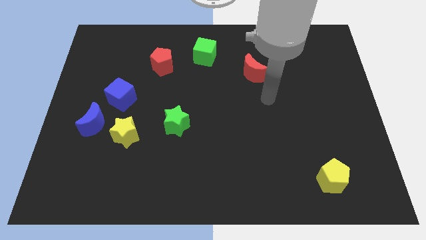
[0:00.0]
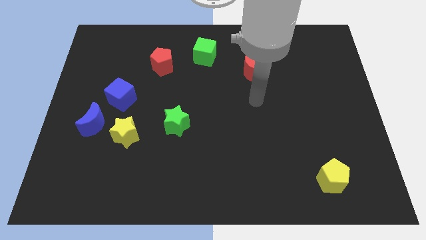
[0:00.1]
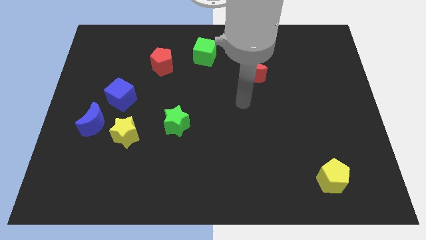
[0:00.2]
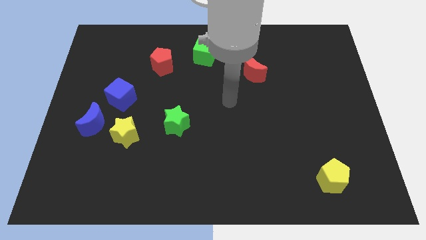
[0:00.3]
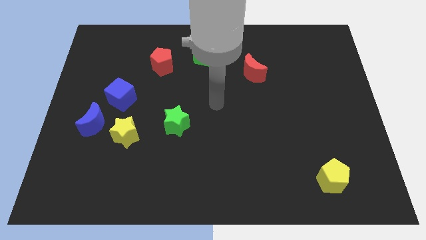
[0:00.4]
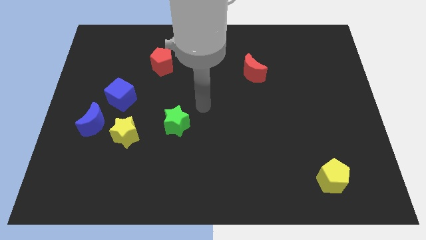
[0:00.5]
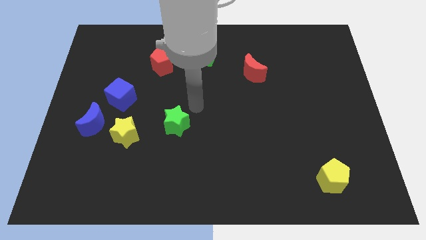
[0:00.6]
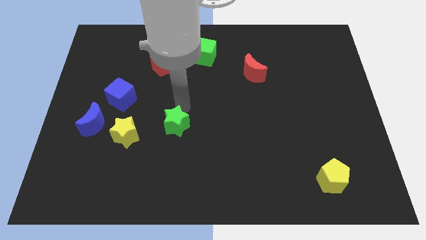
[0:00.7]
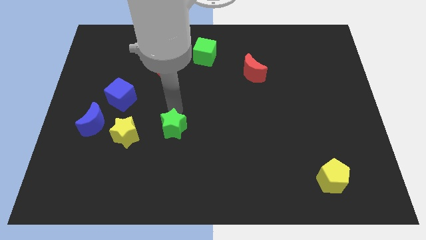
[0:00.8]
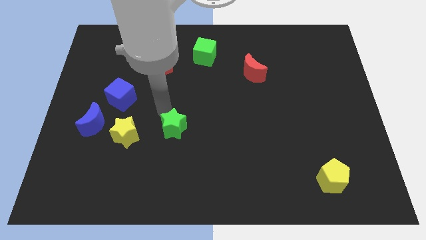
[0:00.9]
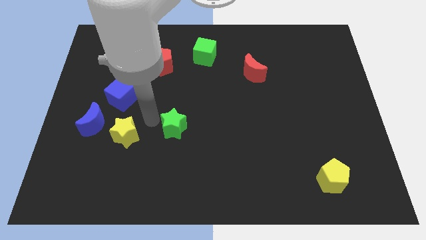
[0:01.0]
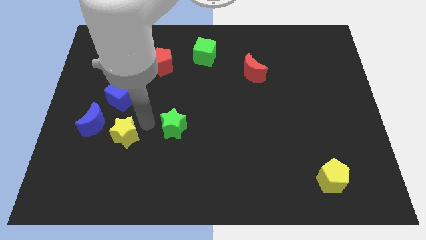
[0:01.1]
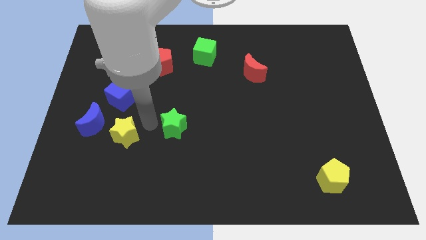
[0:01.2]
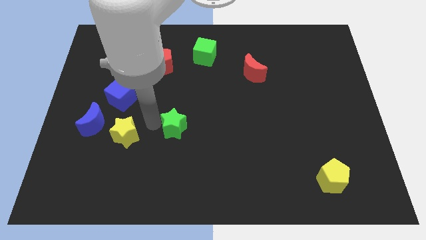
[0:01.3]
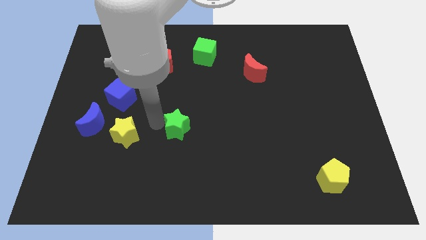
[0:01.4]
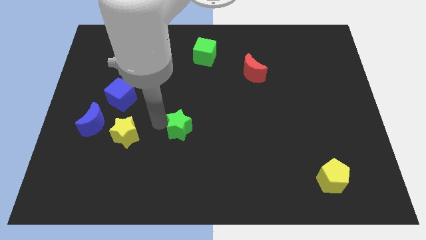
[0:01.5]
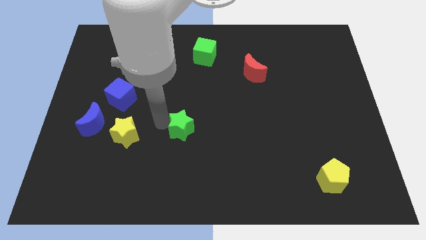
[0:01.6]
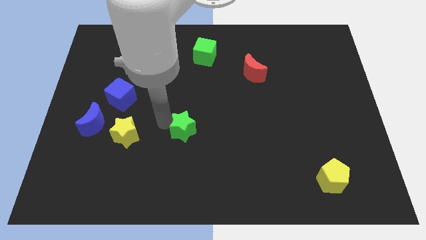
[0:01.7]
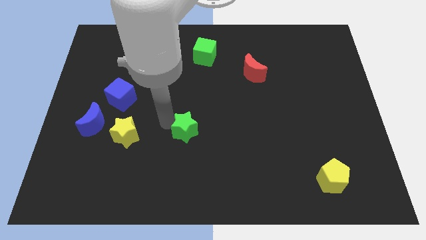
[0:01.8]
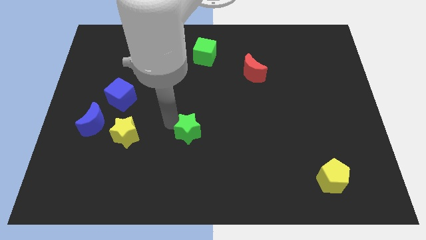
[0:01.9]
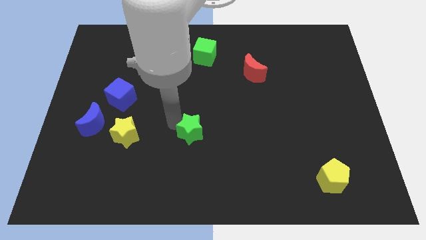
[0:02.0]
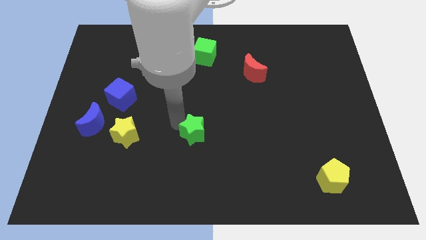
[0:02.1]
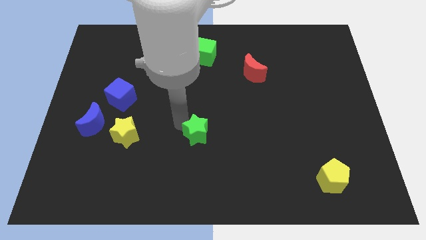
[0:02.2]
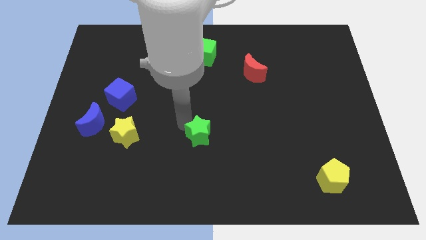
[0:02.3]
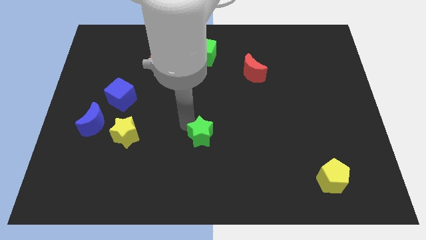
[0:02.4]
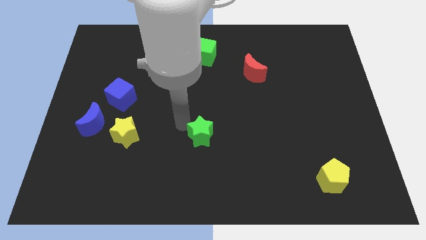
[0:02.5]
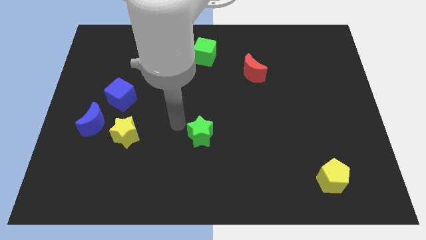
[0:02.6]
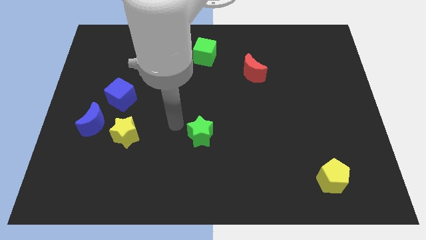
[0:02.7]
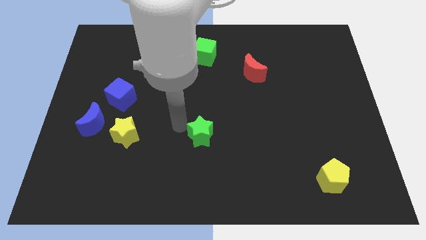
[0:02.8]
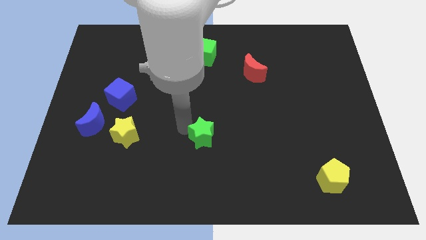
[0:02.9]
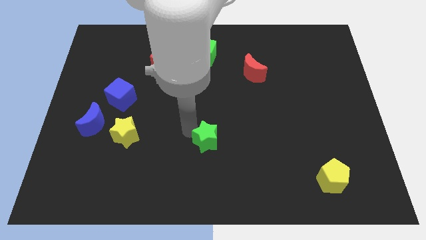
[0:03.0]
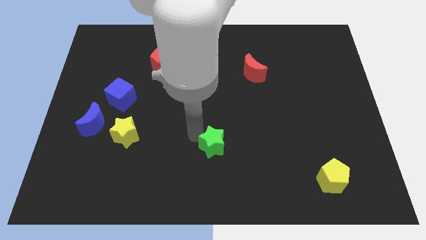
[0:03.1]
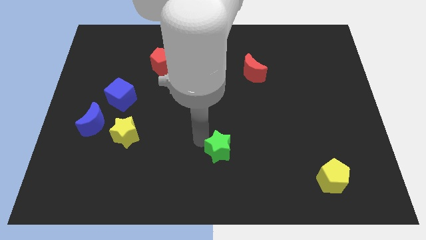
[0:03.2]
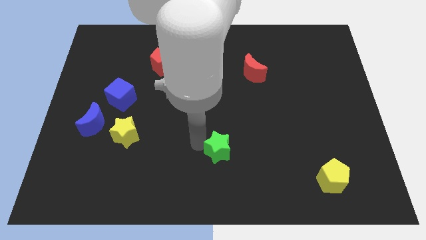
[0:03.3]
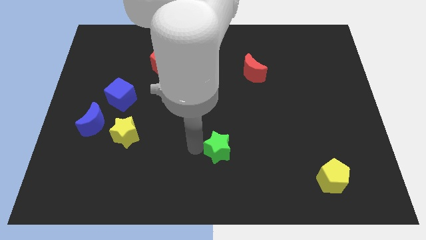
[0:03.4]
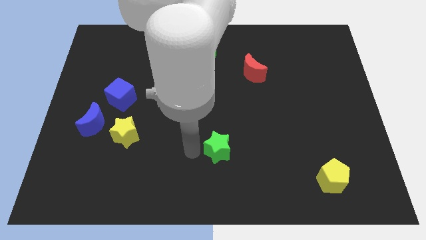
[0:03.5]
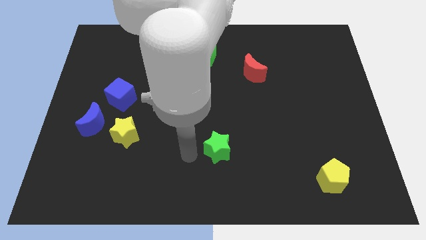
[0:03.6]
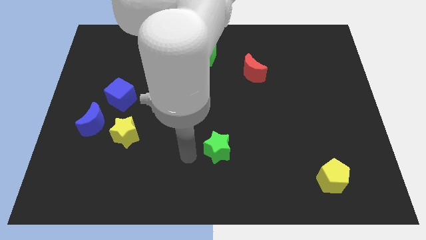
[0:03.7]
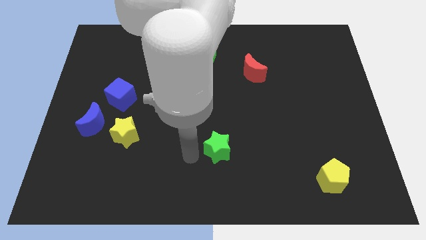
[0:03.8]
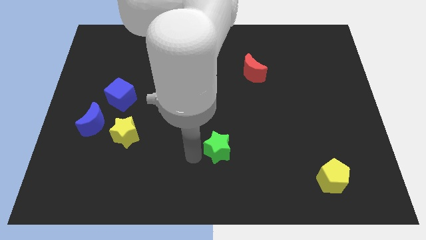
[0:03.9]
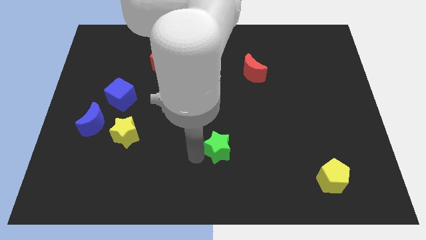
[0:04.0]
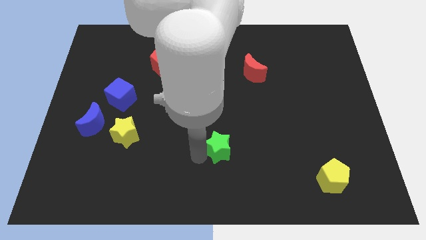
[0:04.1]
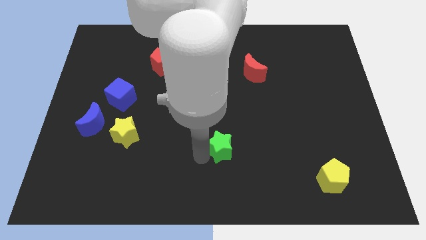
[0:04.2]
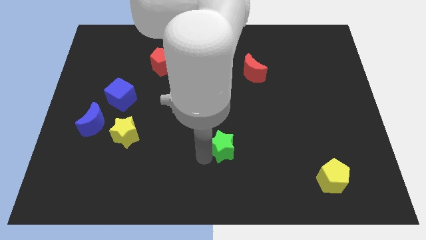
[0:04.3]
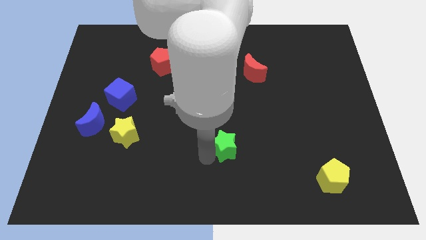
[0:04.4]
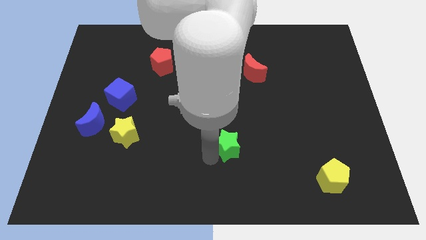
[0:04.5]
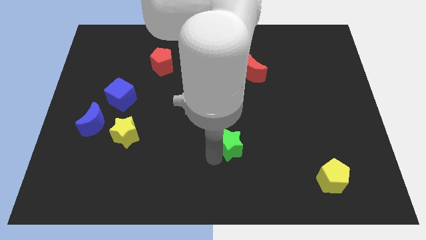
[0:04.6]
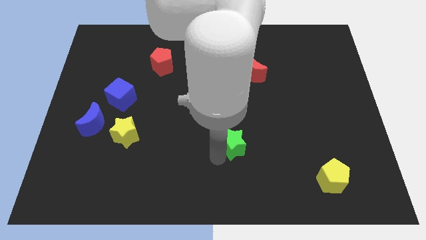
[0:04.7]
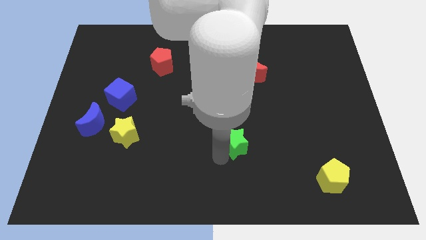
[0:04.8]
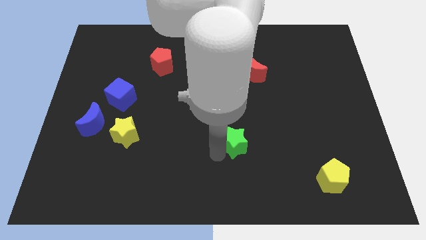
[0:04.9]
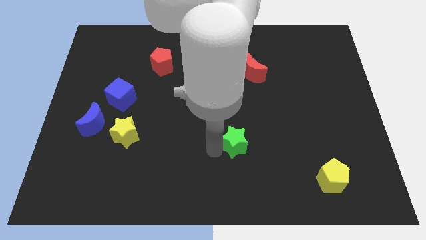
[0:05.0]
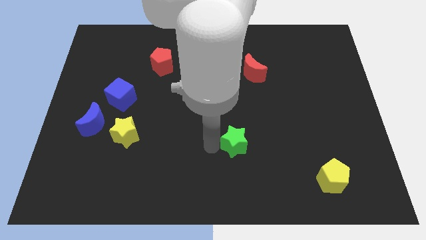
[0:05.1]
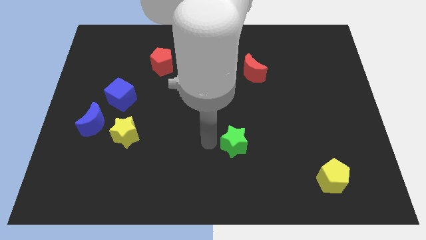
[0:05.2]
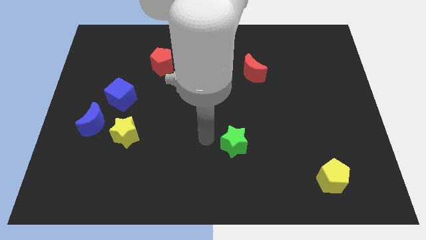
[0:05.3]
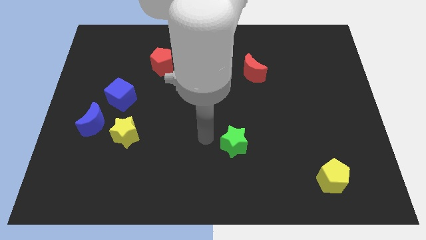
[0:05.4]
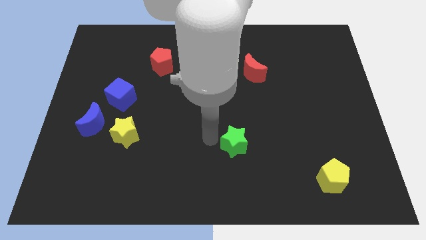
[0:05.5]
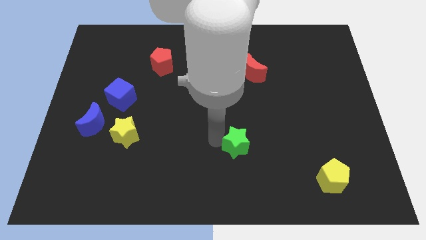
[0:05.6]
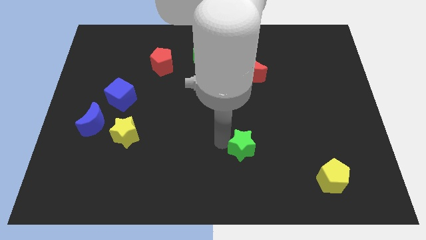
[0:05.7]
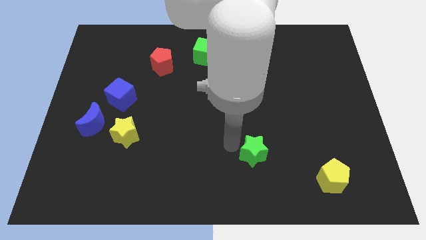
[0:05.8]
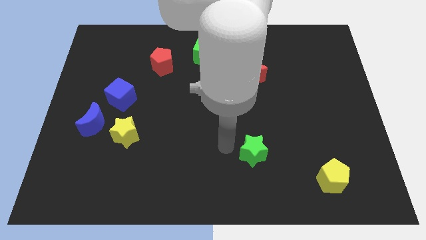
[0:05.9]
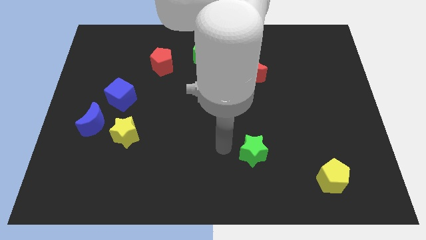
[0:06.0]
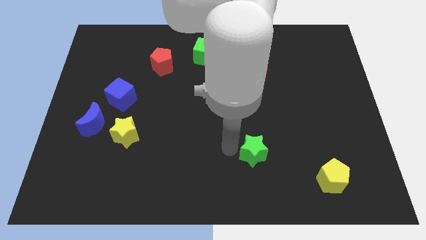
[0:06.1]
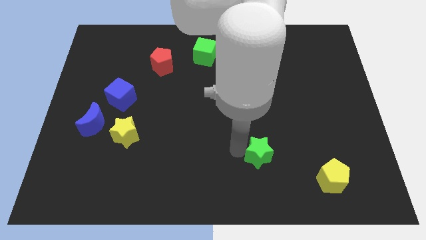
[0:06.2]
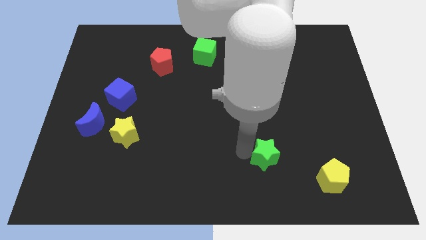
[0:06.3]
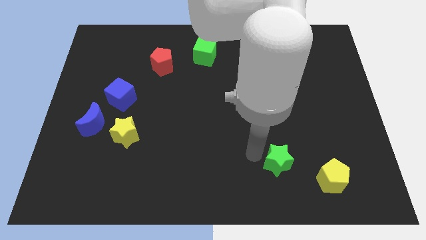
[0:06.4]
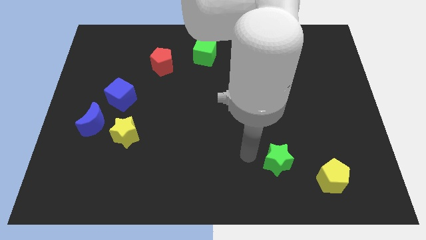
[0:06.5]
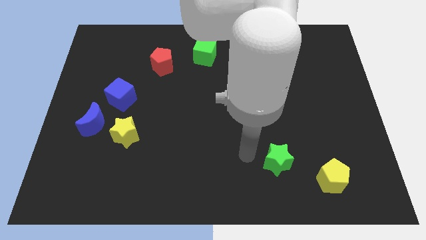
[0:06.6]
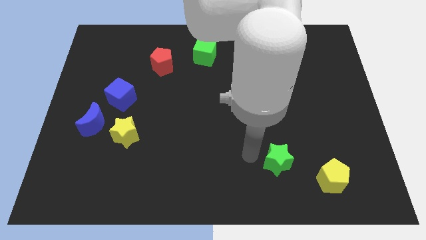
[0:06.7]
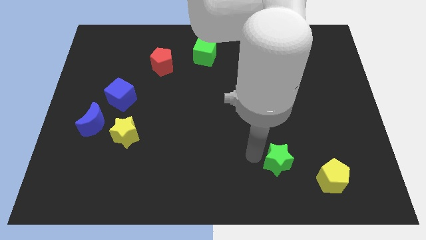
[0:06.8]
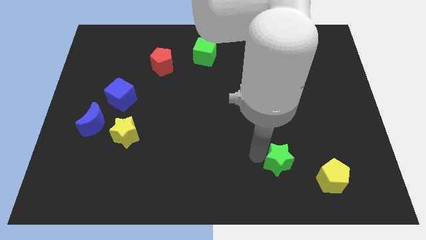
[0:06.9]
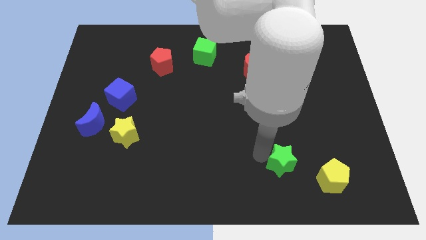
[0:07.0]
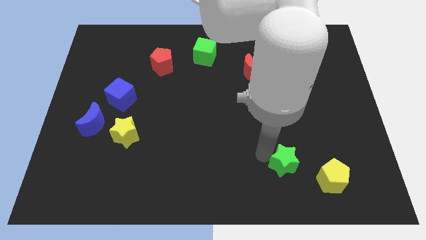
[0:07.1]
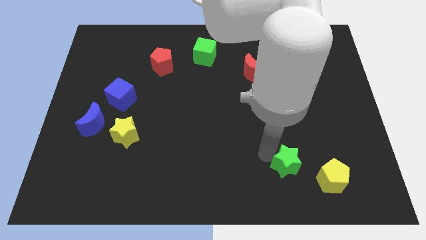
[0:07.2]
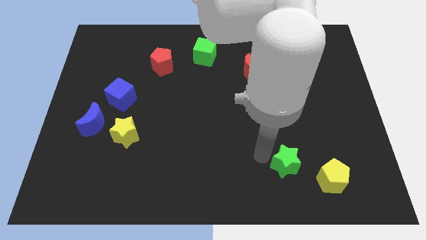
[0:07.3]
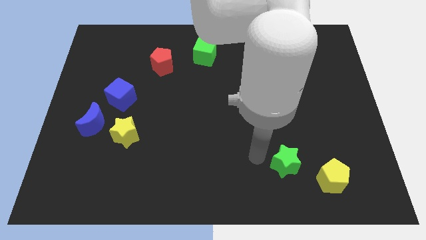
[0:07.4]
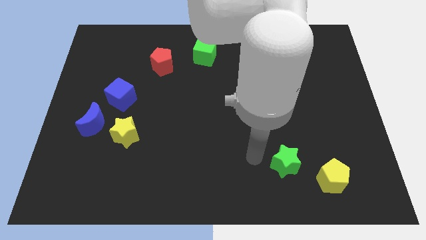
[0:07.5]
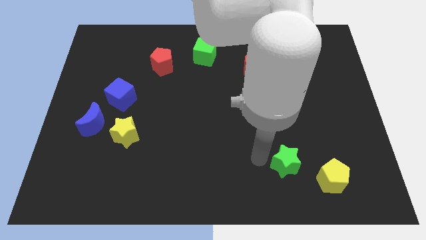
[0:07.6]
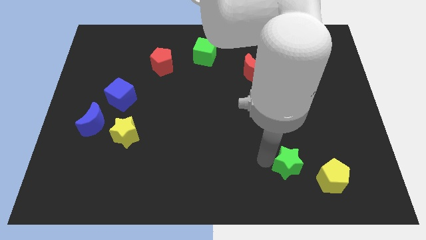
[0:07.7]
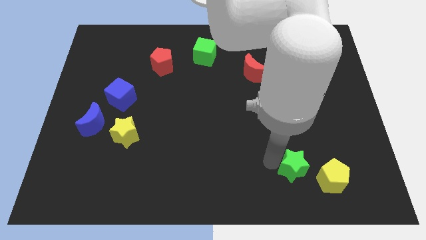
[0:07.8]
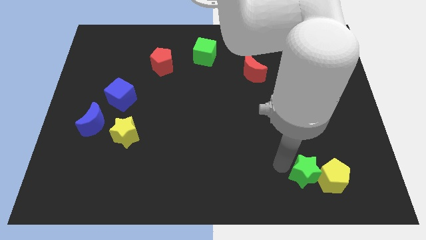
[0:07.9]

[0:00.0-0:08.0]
put the green star close to the yellow pentagon
